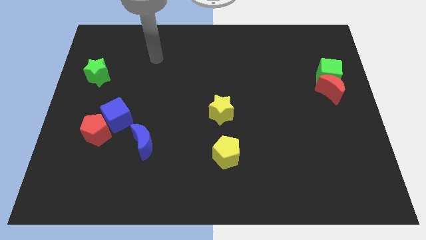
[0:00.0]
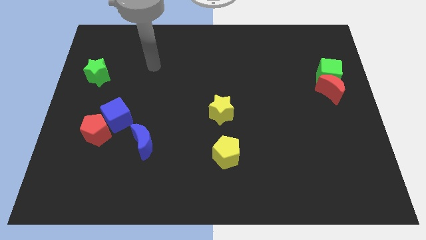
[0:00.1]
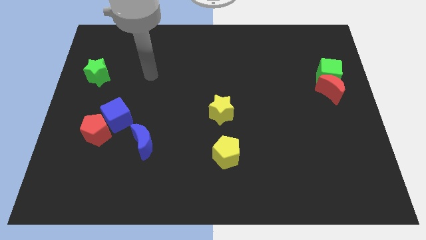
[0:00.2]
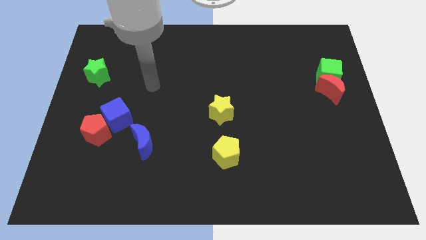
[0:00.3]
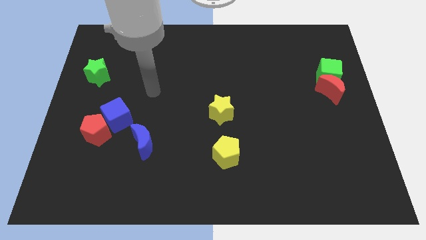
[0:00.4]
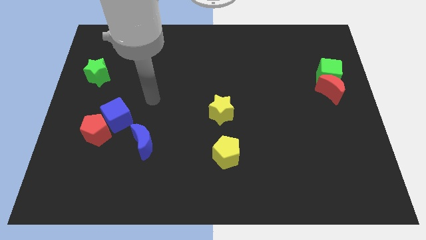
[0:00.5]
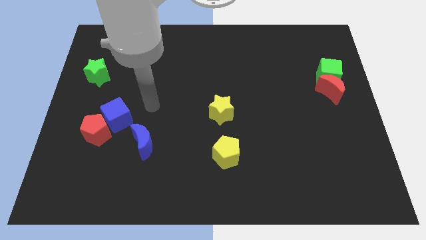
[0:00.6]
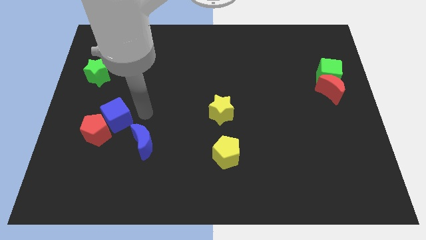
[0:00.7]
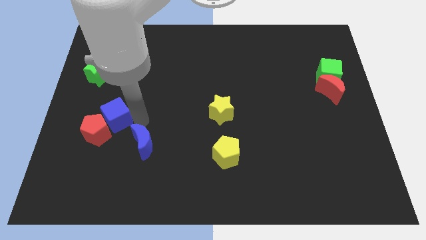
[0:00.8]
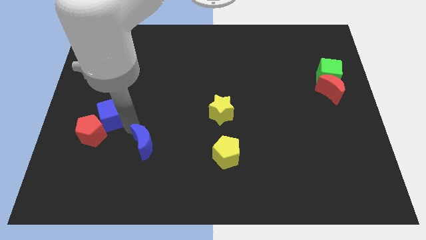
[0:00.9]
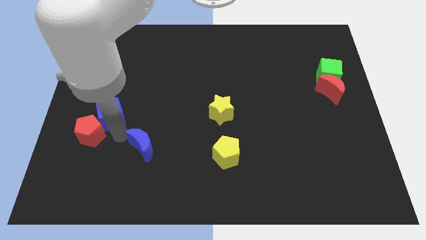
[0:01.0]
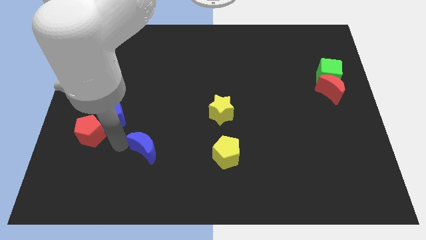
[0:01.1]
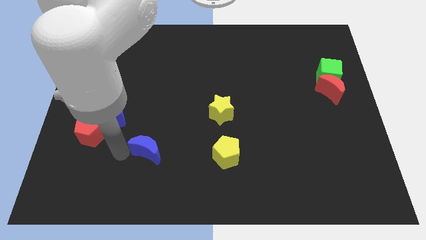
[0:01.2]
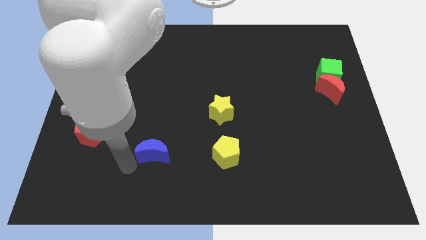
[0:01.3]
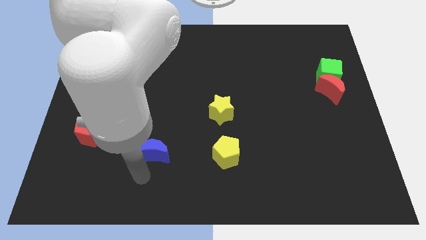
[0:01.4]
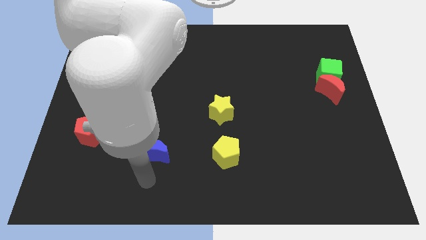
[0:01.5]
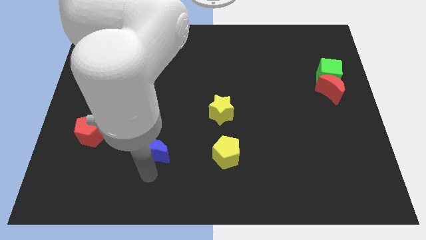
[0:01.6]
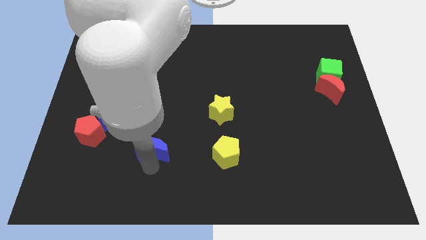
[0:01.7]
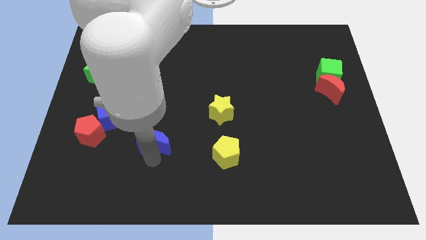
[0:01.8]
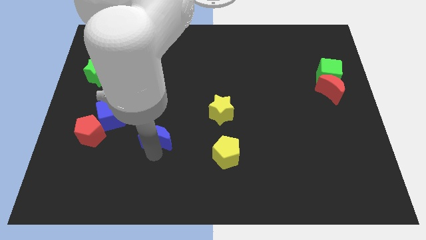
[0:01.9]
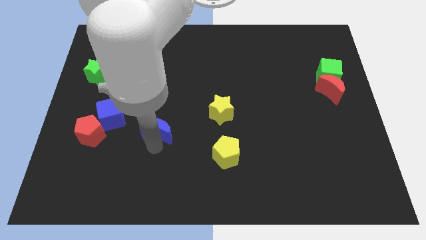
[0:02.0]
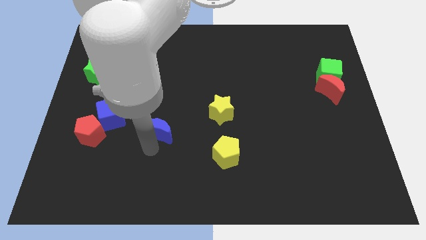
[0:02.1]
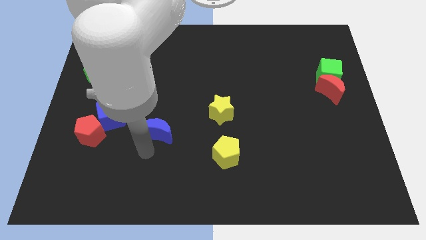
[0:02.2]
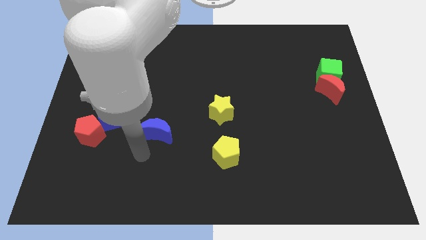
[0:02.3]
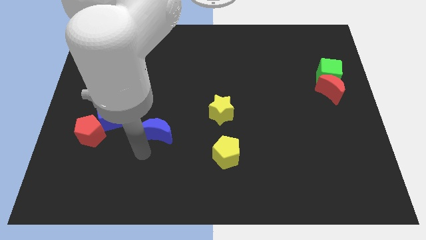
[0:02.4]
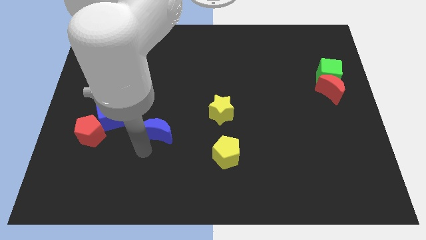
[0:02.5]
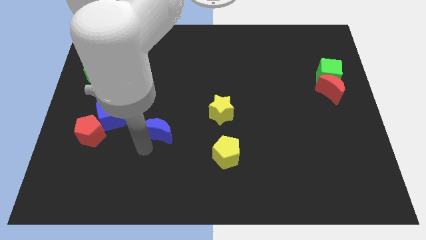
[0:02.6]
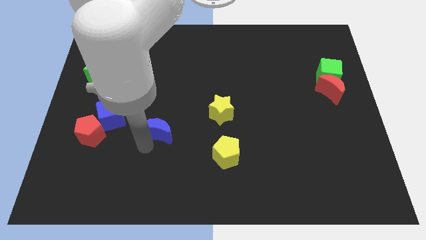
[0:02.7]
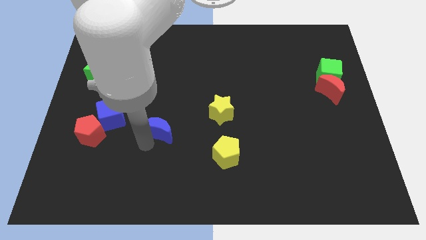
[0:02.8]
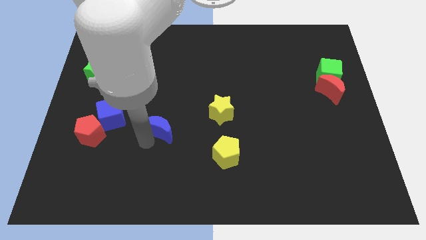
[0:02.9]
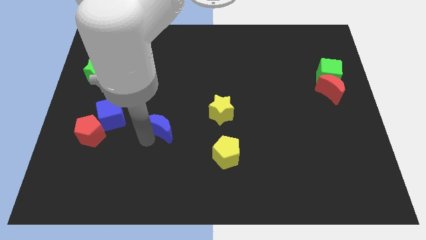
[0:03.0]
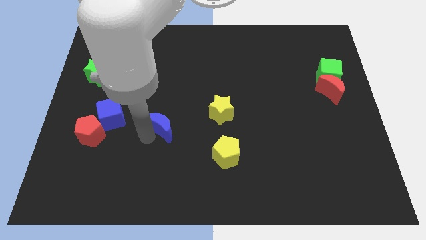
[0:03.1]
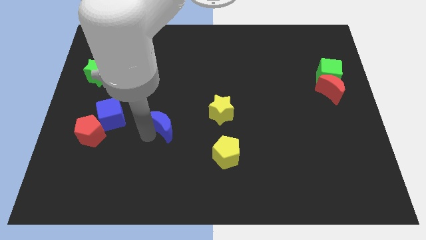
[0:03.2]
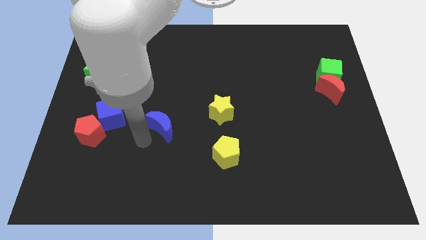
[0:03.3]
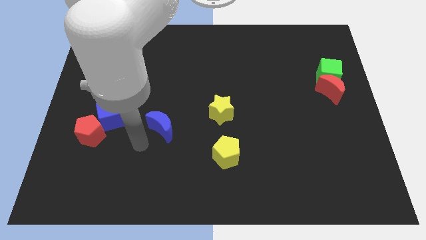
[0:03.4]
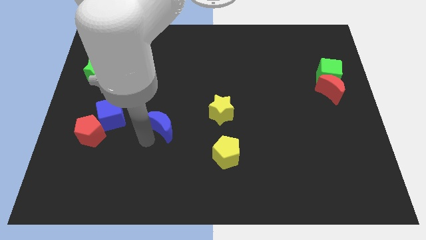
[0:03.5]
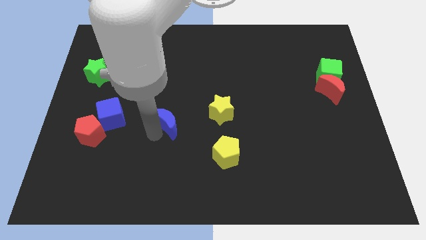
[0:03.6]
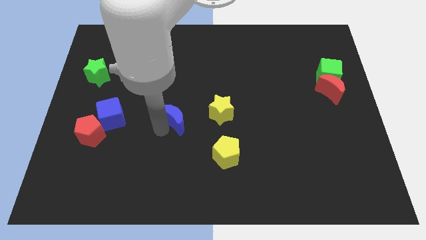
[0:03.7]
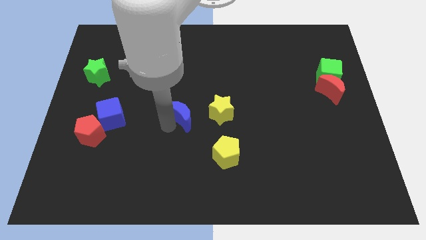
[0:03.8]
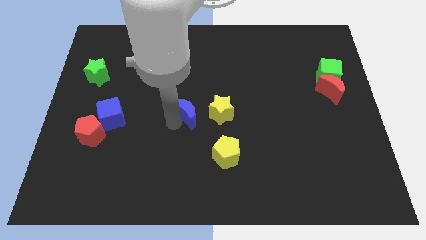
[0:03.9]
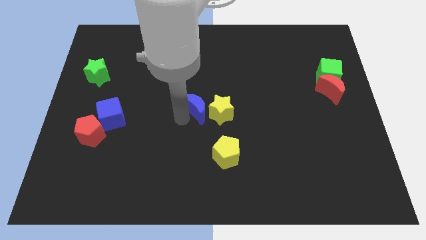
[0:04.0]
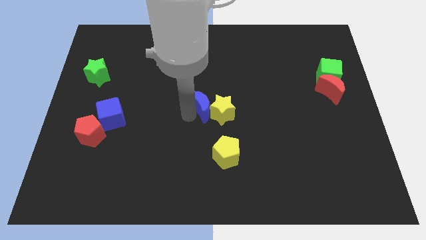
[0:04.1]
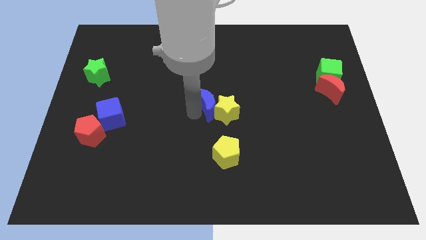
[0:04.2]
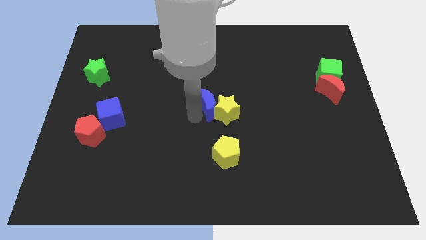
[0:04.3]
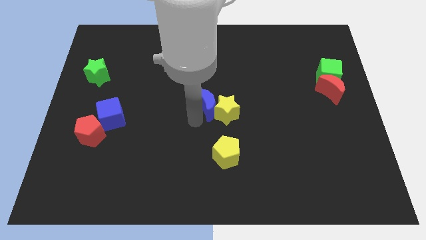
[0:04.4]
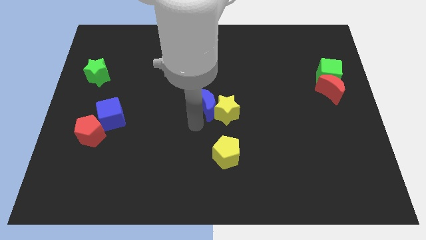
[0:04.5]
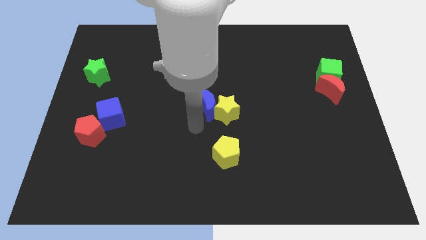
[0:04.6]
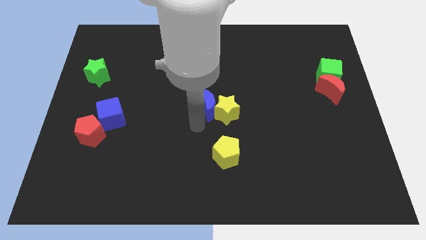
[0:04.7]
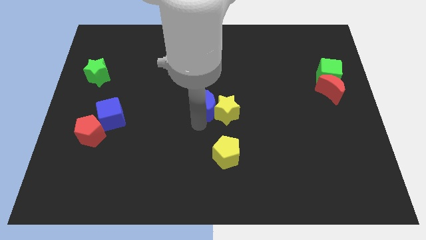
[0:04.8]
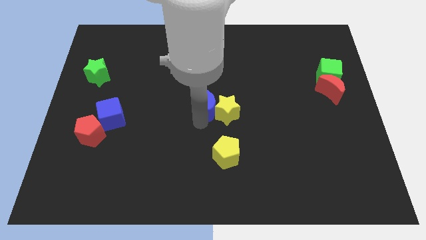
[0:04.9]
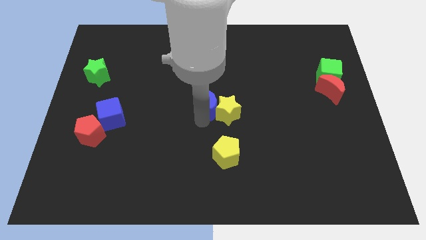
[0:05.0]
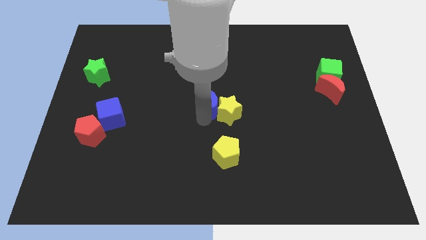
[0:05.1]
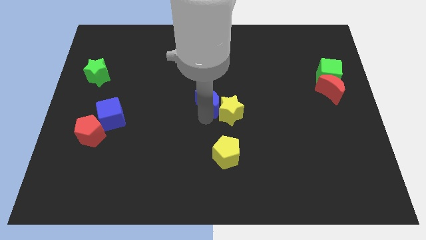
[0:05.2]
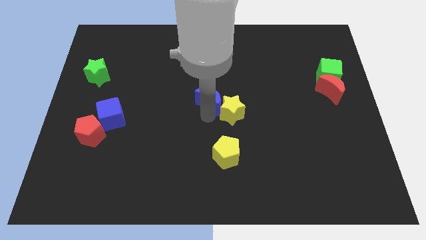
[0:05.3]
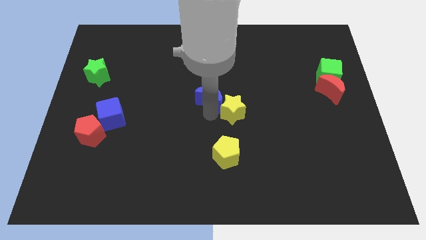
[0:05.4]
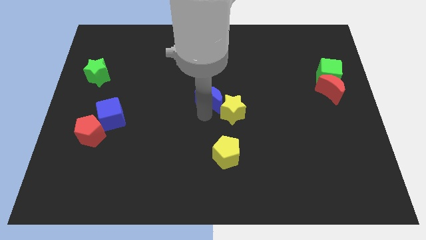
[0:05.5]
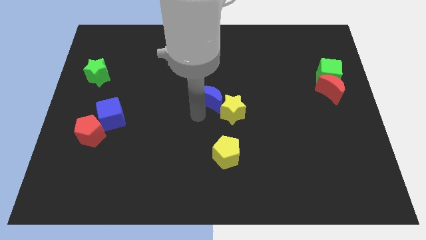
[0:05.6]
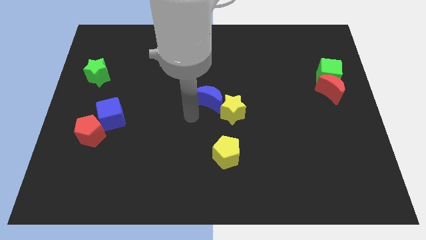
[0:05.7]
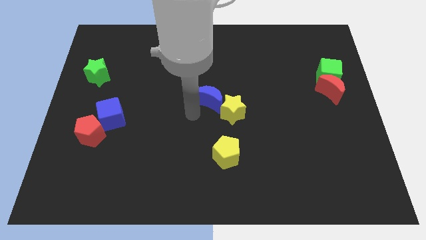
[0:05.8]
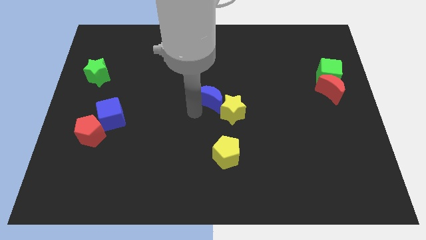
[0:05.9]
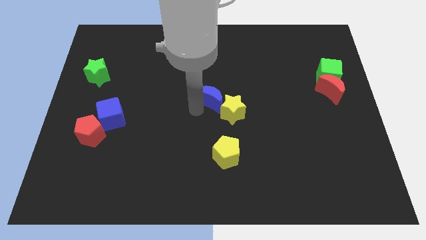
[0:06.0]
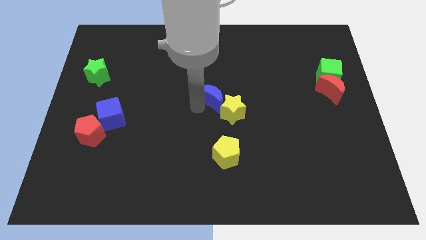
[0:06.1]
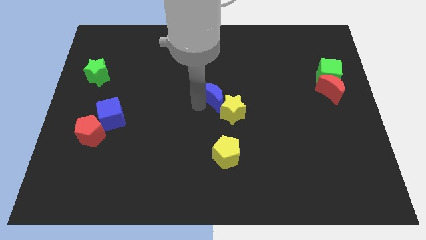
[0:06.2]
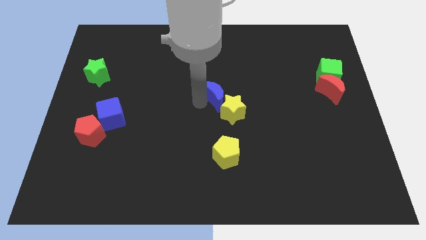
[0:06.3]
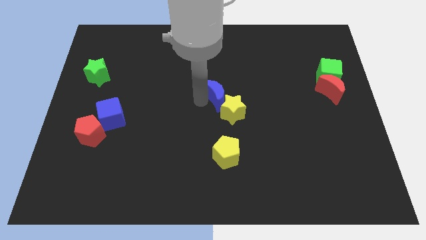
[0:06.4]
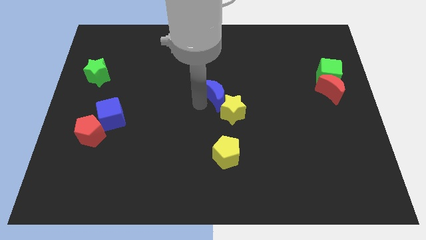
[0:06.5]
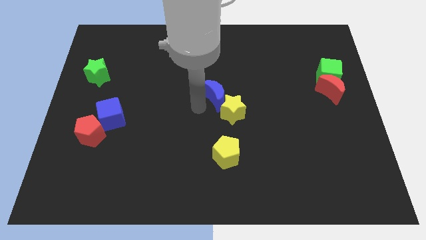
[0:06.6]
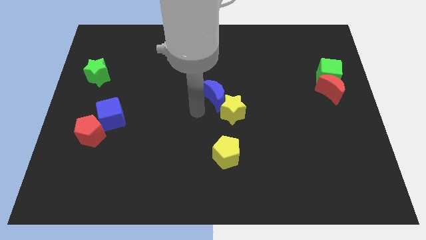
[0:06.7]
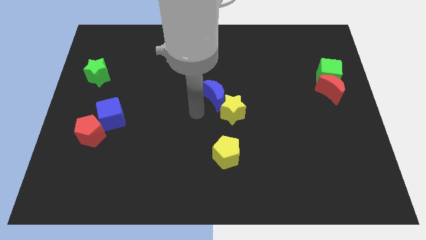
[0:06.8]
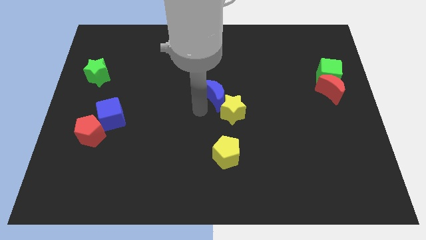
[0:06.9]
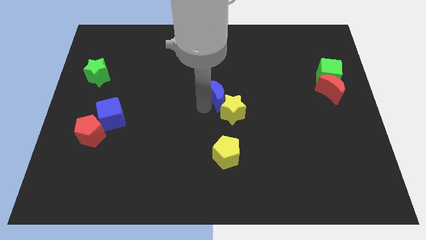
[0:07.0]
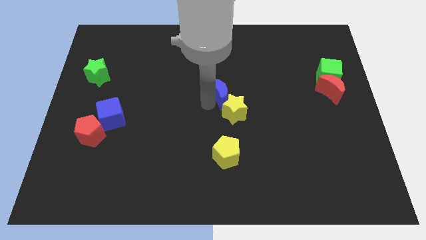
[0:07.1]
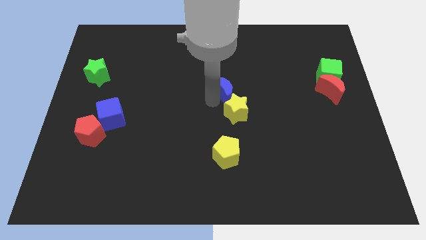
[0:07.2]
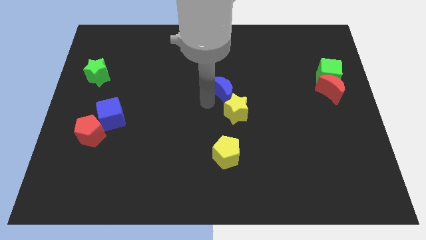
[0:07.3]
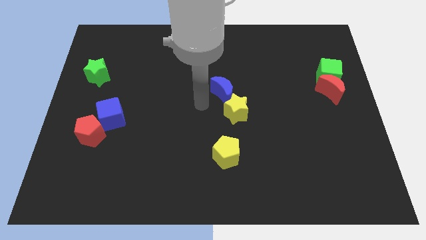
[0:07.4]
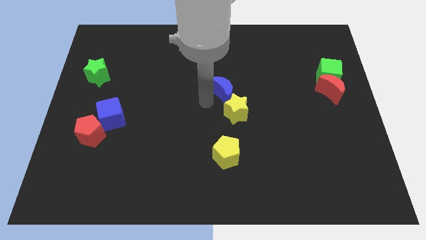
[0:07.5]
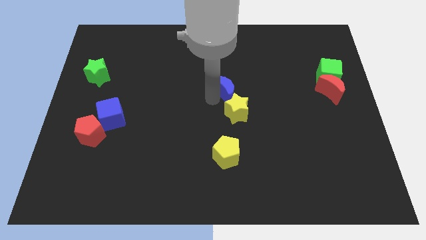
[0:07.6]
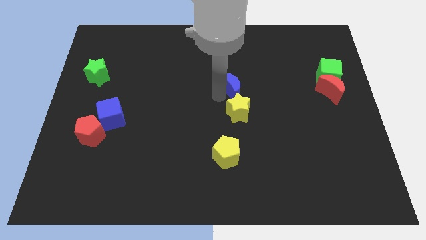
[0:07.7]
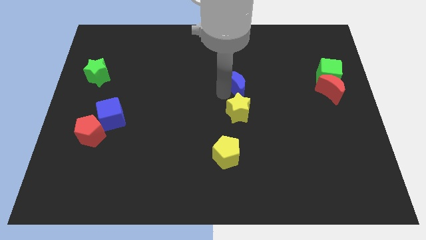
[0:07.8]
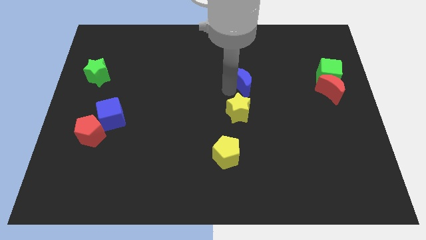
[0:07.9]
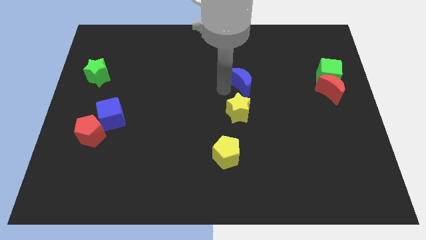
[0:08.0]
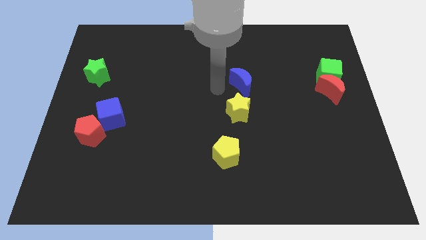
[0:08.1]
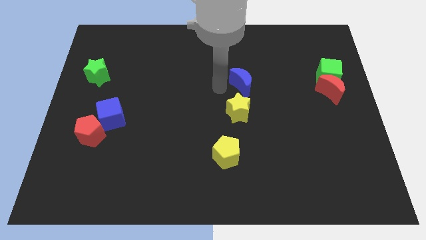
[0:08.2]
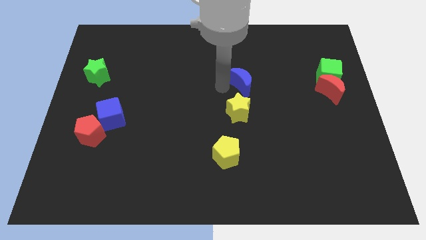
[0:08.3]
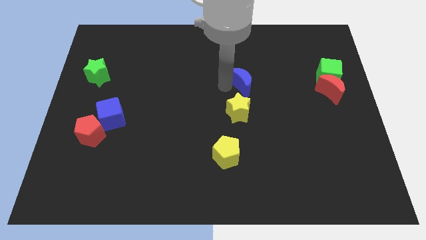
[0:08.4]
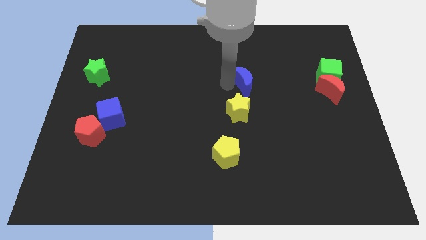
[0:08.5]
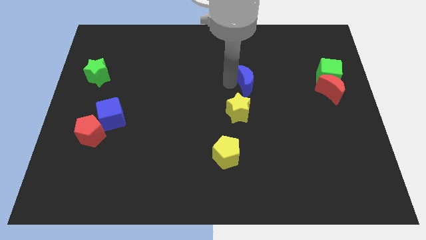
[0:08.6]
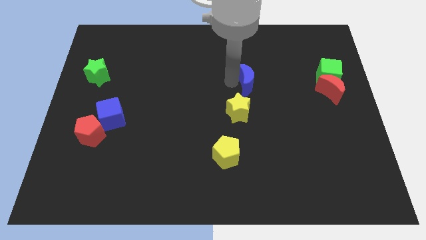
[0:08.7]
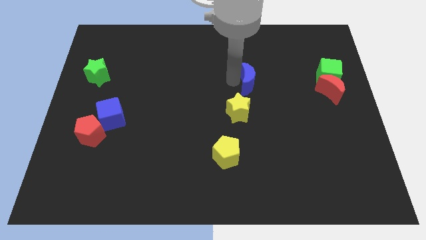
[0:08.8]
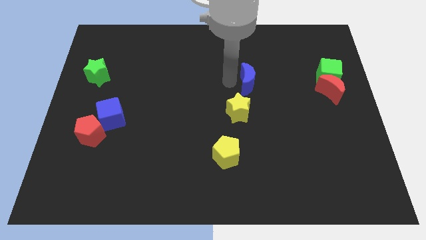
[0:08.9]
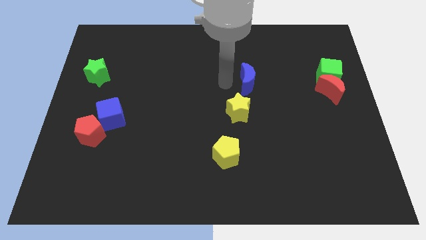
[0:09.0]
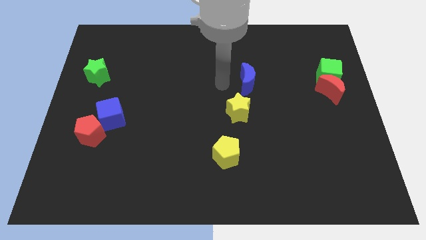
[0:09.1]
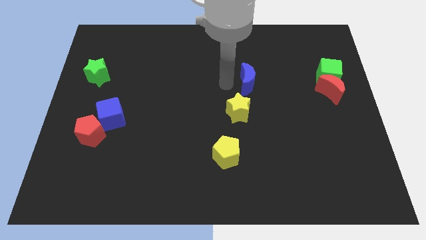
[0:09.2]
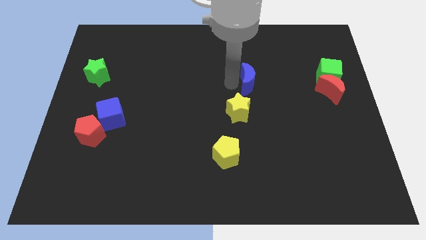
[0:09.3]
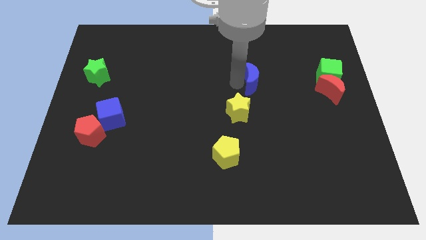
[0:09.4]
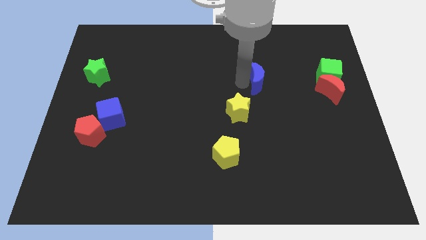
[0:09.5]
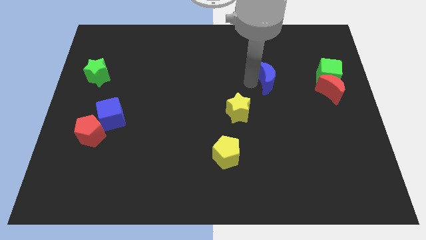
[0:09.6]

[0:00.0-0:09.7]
slide the blue moon just left of the green cube
